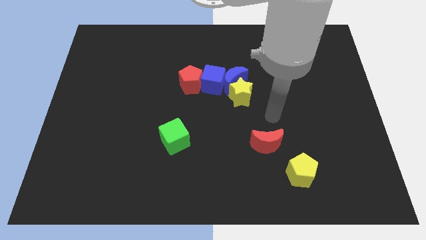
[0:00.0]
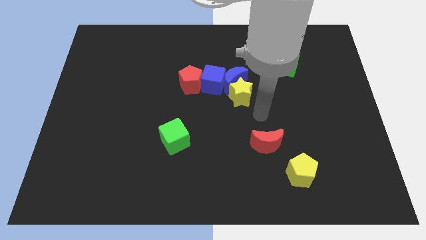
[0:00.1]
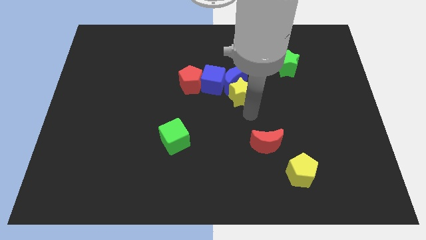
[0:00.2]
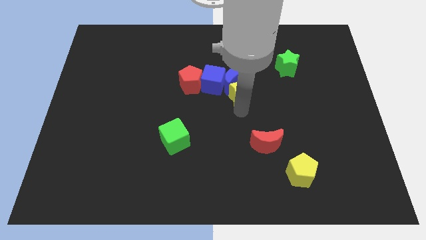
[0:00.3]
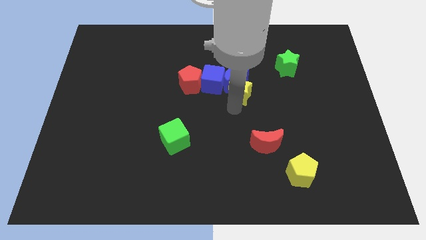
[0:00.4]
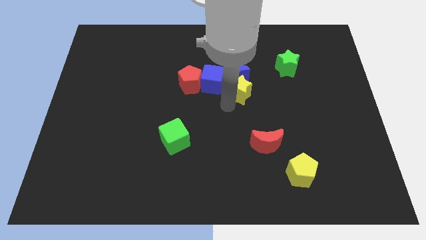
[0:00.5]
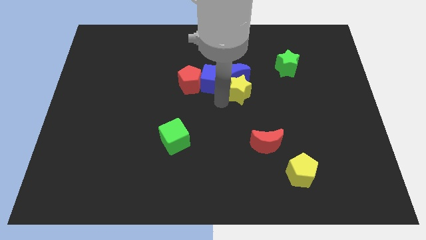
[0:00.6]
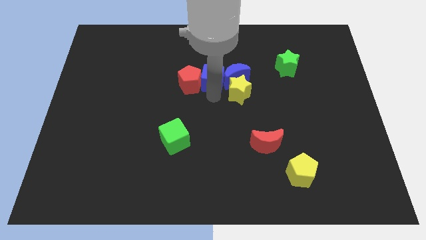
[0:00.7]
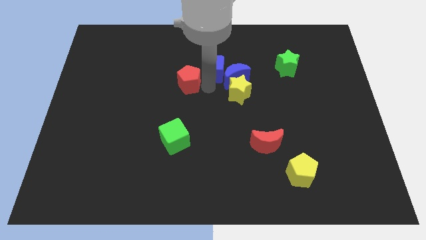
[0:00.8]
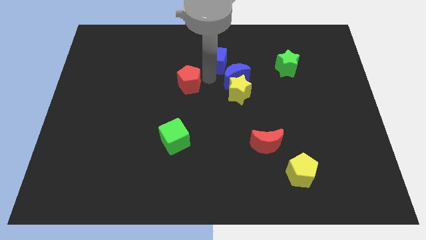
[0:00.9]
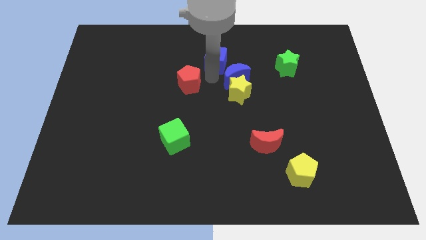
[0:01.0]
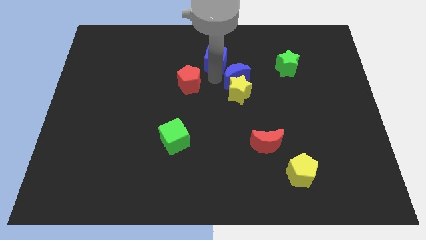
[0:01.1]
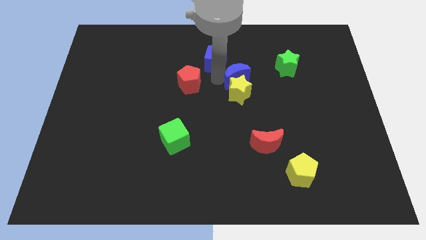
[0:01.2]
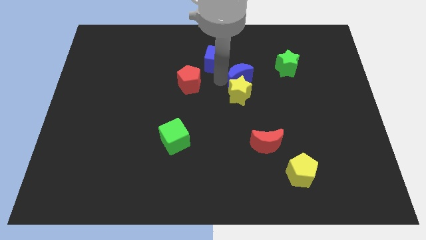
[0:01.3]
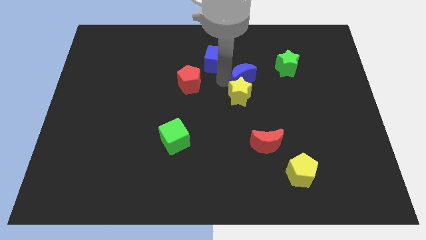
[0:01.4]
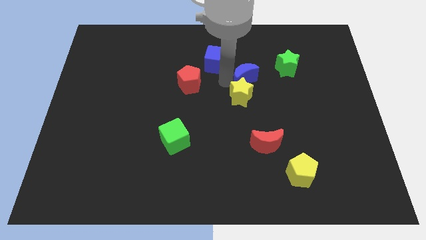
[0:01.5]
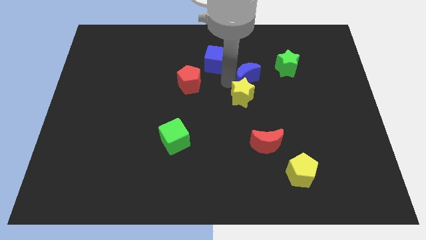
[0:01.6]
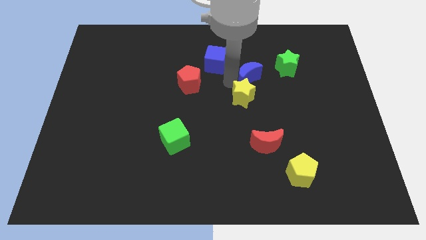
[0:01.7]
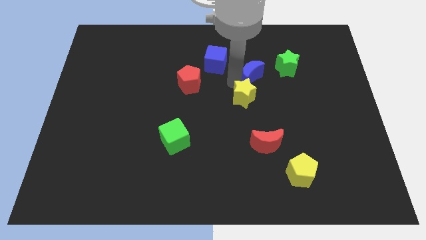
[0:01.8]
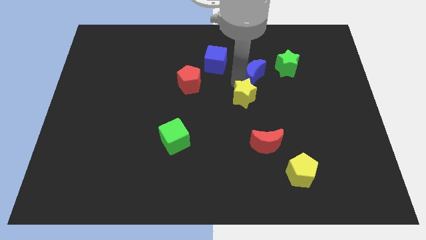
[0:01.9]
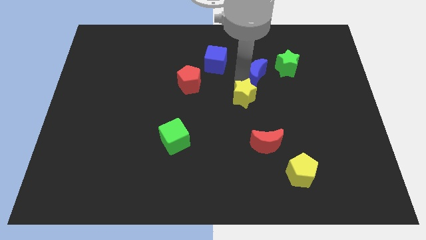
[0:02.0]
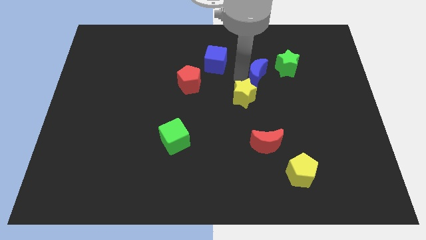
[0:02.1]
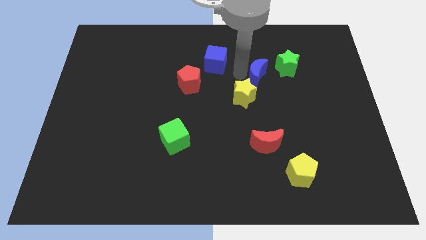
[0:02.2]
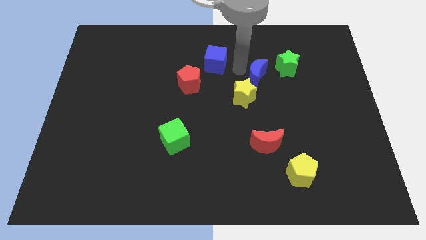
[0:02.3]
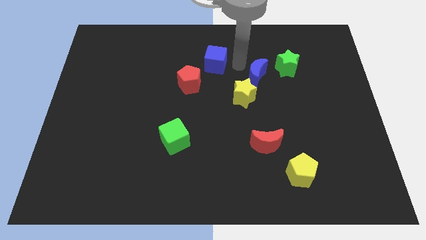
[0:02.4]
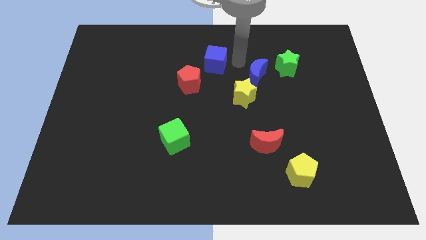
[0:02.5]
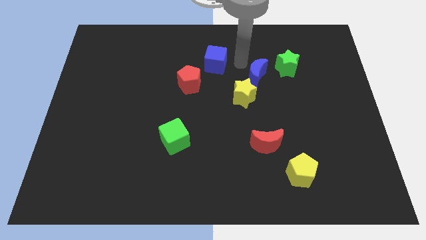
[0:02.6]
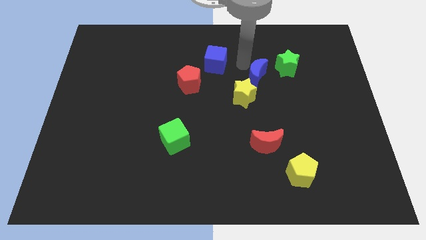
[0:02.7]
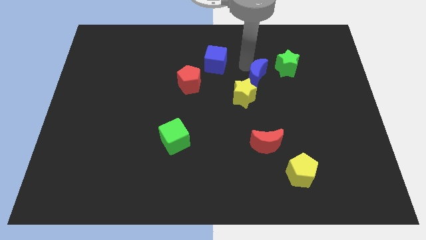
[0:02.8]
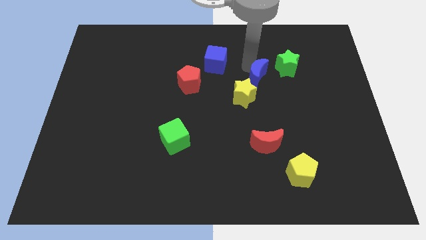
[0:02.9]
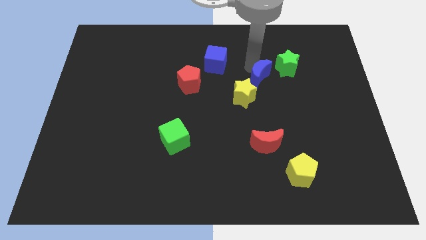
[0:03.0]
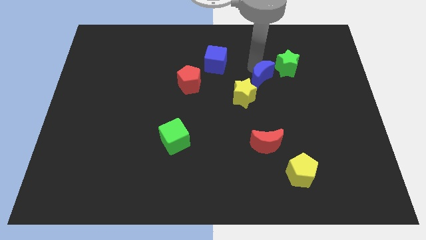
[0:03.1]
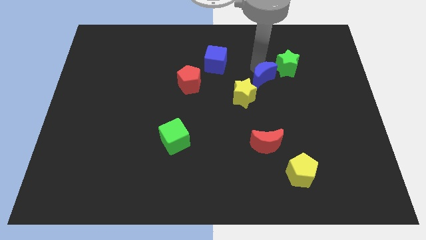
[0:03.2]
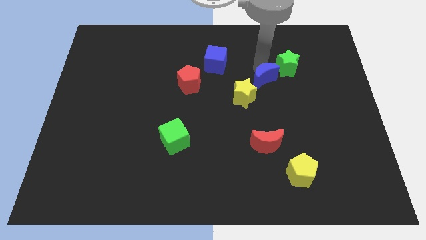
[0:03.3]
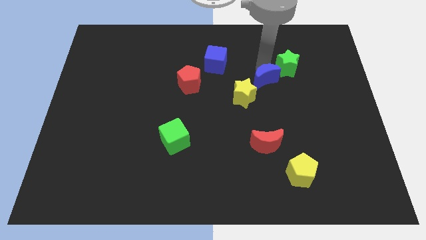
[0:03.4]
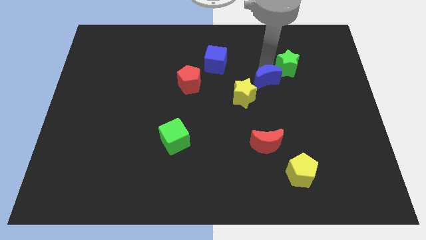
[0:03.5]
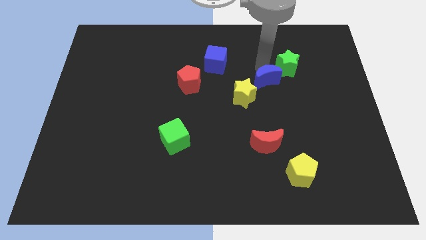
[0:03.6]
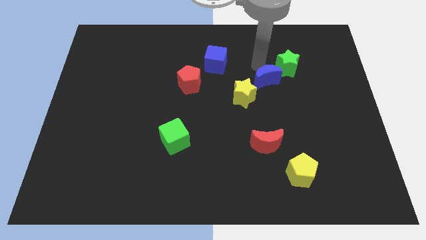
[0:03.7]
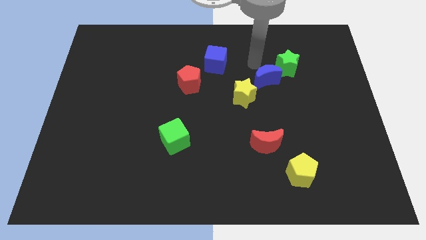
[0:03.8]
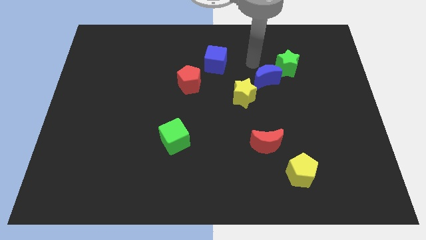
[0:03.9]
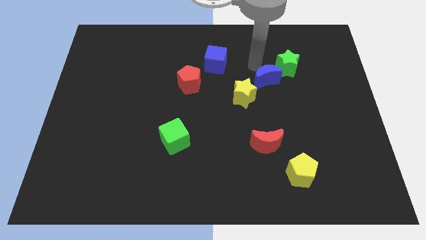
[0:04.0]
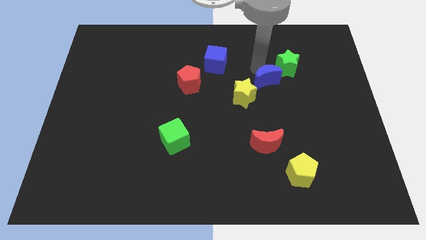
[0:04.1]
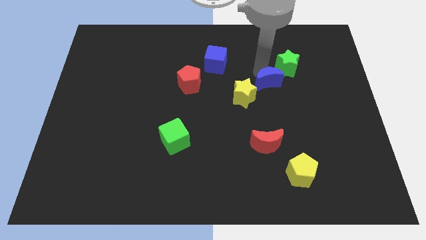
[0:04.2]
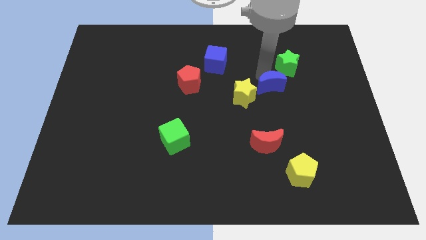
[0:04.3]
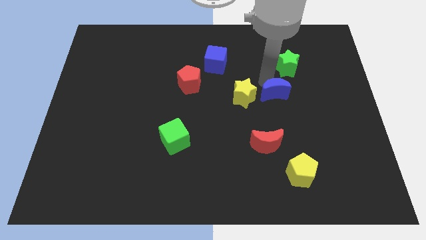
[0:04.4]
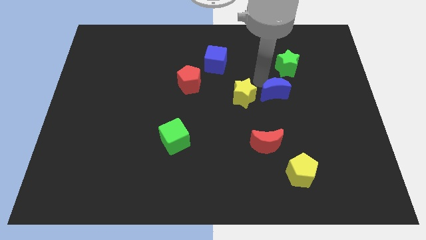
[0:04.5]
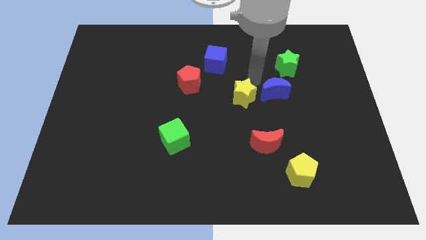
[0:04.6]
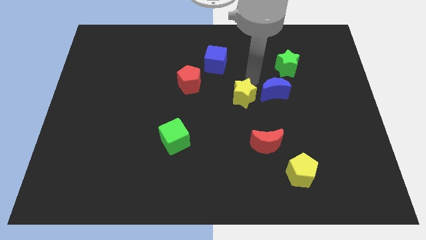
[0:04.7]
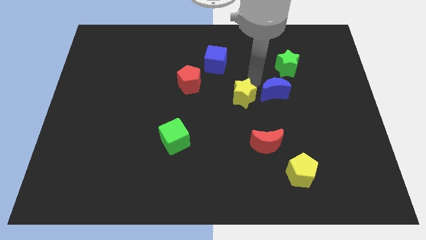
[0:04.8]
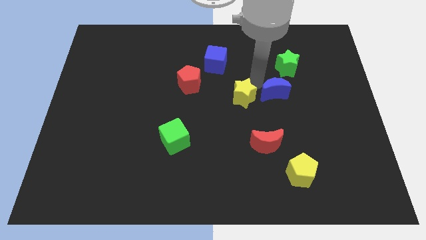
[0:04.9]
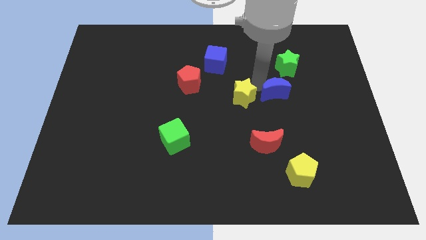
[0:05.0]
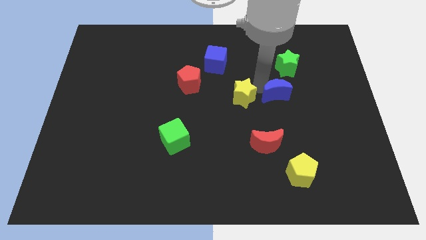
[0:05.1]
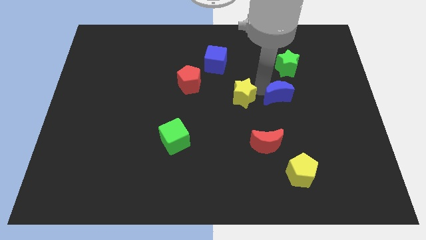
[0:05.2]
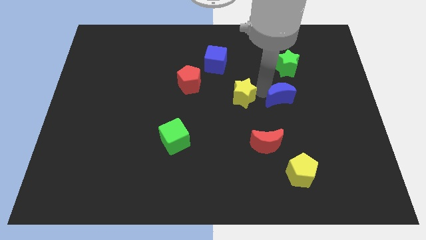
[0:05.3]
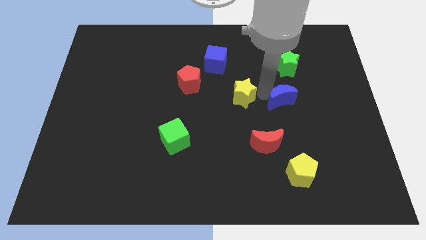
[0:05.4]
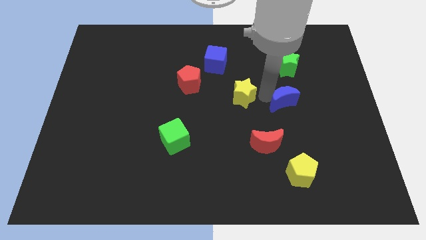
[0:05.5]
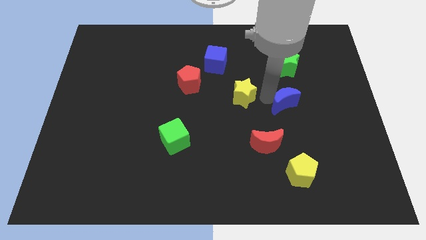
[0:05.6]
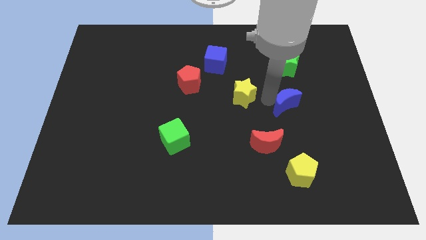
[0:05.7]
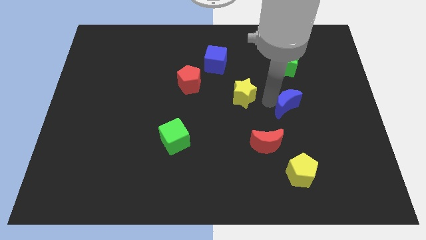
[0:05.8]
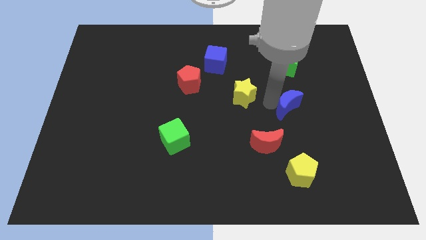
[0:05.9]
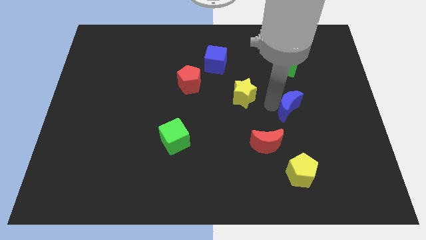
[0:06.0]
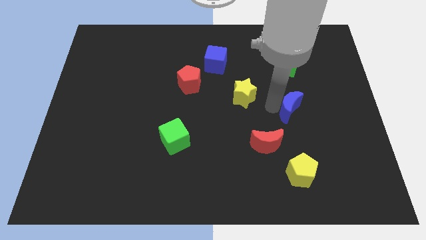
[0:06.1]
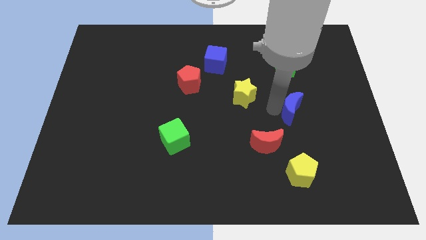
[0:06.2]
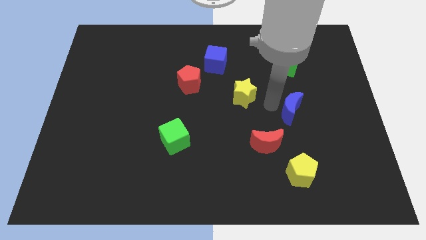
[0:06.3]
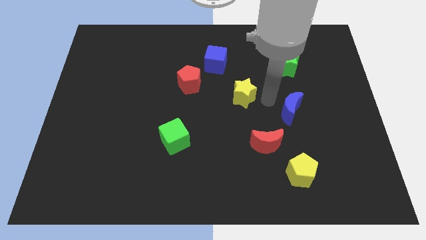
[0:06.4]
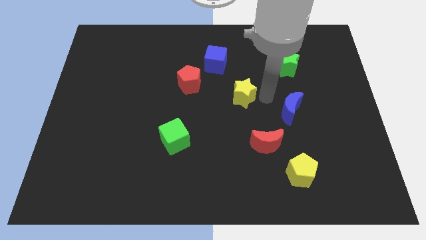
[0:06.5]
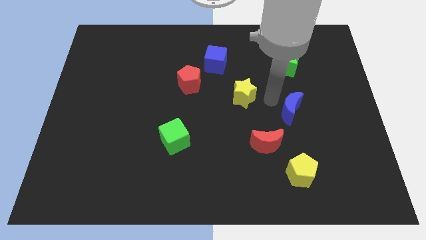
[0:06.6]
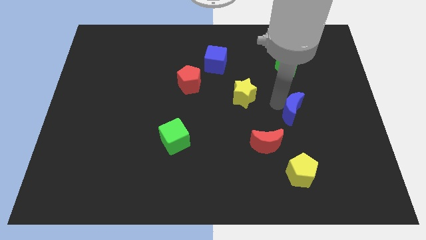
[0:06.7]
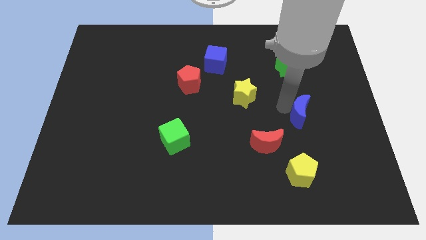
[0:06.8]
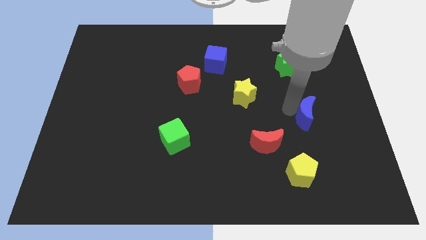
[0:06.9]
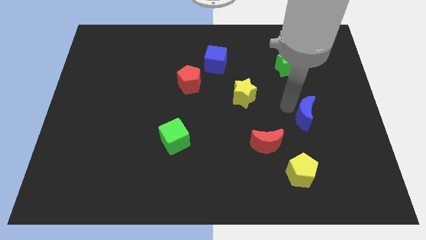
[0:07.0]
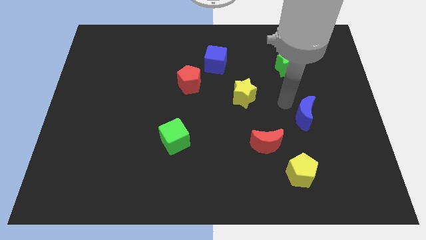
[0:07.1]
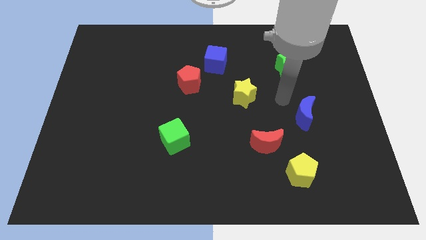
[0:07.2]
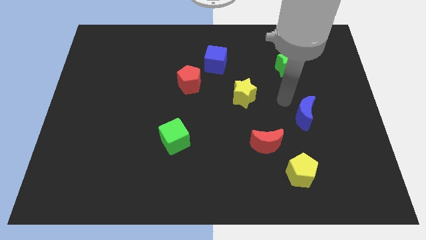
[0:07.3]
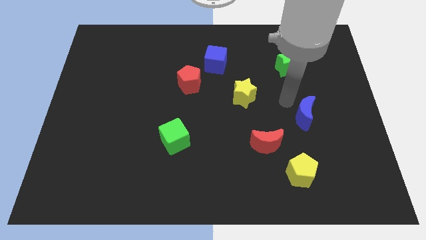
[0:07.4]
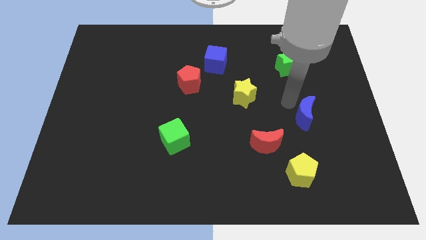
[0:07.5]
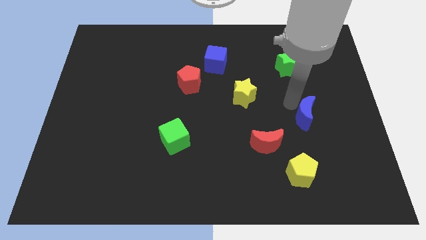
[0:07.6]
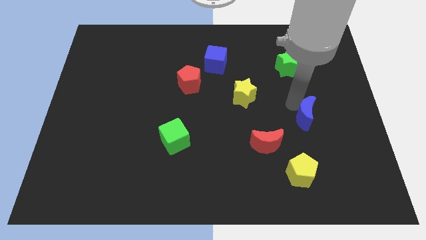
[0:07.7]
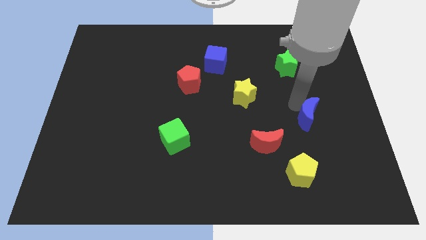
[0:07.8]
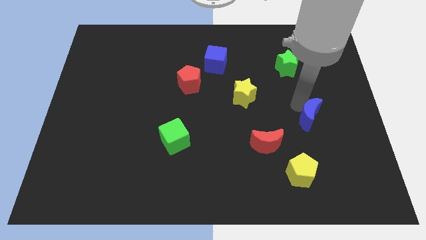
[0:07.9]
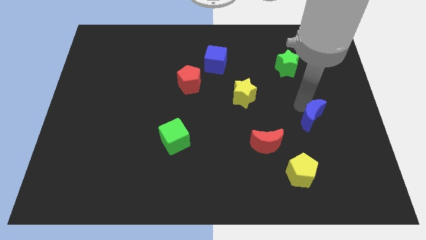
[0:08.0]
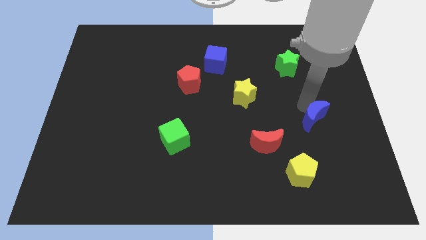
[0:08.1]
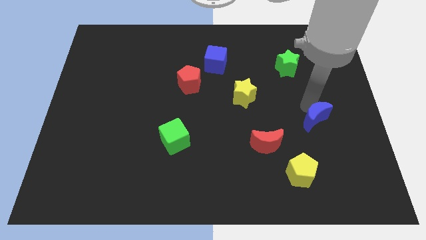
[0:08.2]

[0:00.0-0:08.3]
push the blue moon diagonally down and right
